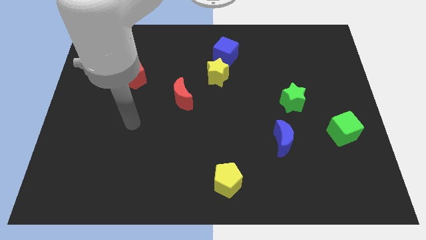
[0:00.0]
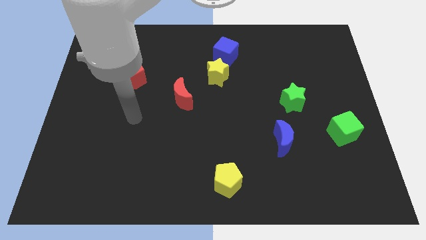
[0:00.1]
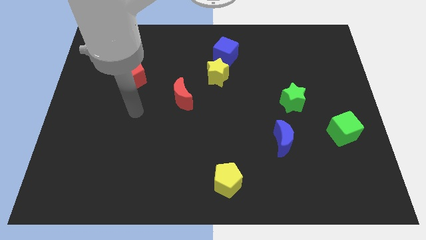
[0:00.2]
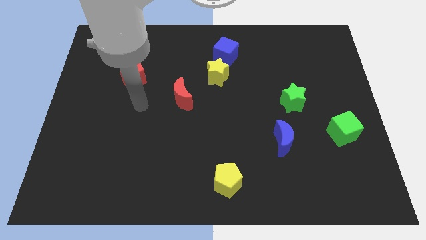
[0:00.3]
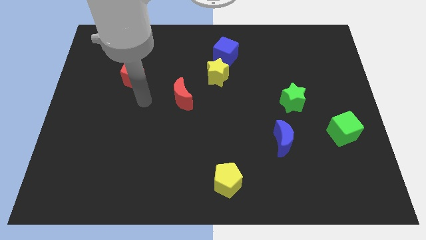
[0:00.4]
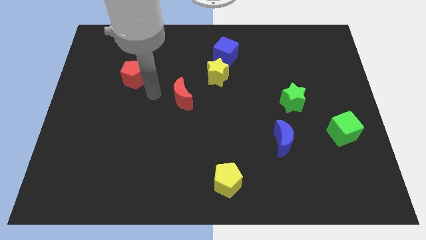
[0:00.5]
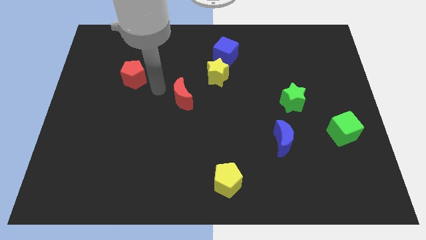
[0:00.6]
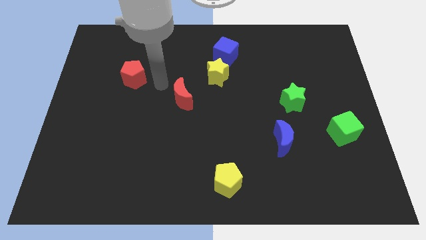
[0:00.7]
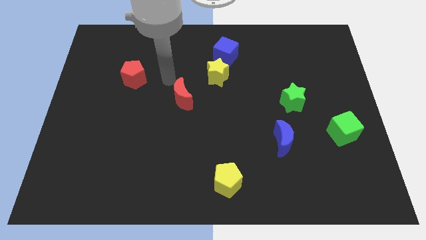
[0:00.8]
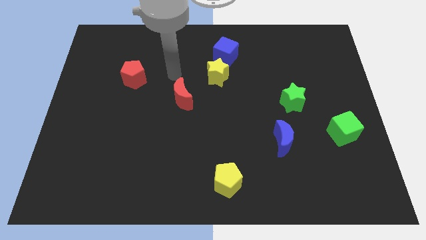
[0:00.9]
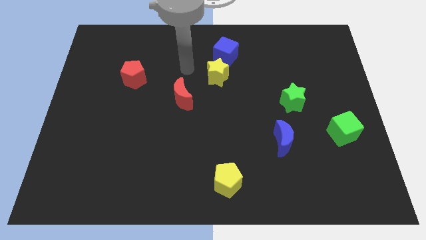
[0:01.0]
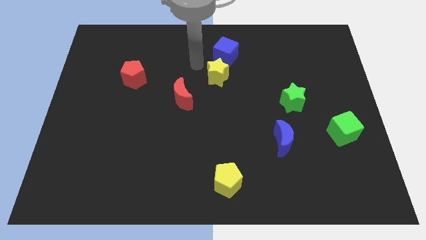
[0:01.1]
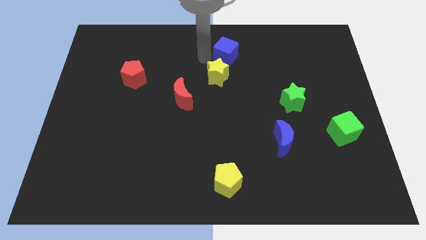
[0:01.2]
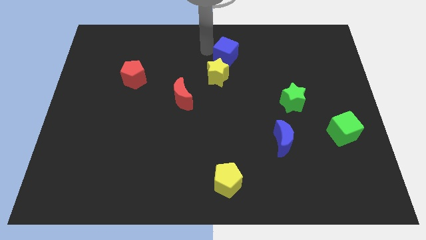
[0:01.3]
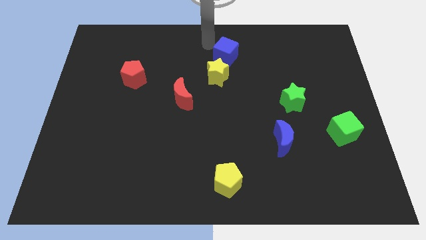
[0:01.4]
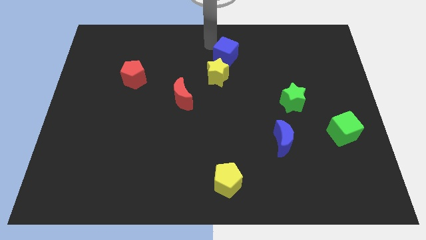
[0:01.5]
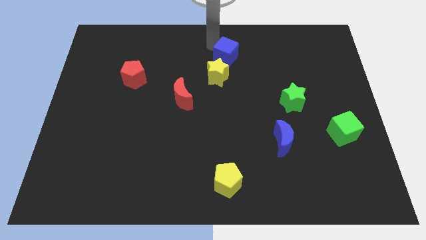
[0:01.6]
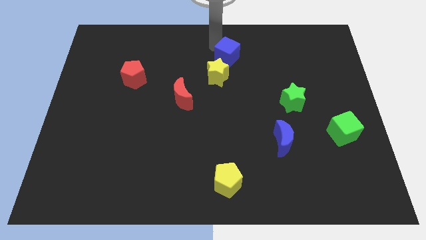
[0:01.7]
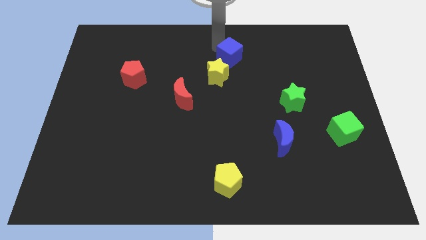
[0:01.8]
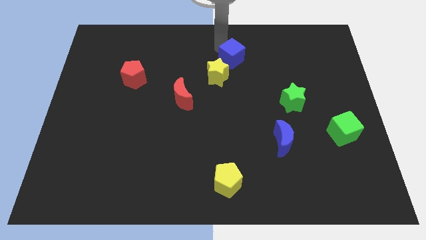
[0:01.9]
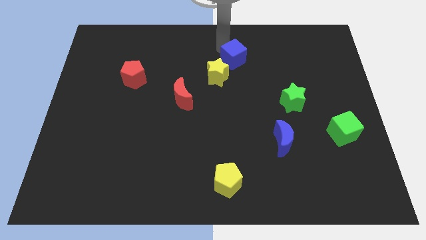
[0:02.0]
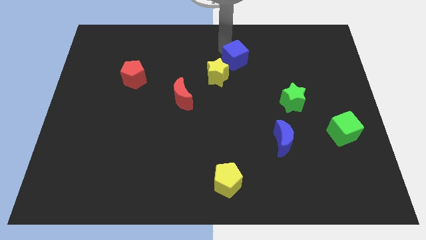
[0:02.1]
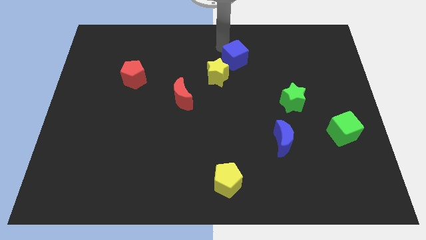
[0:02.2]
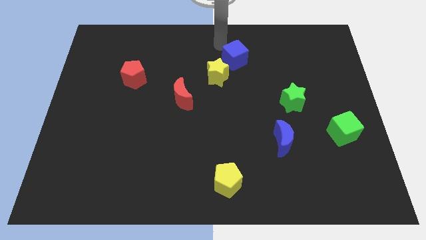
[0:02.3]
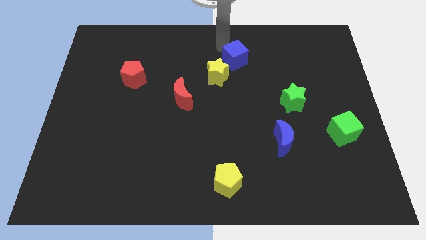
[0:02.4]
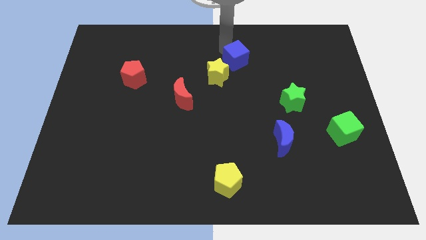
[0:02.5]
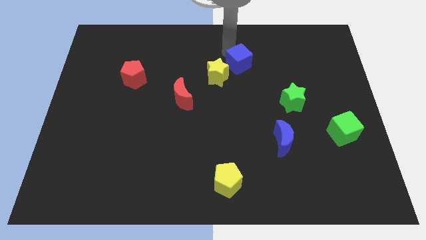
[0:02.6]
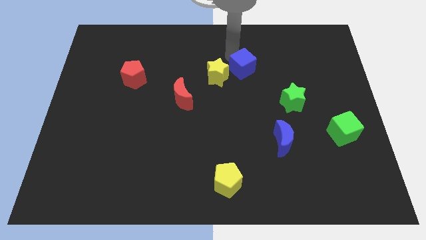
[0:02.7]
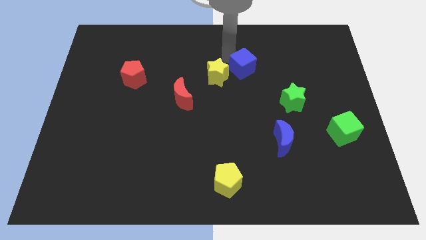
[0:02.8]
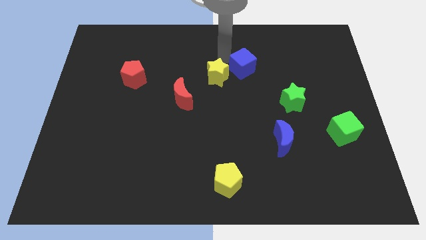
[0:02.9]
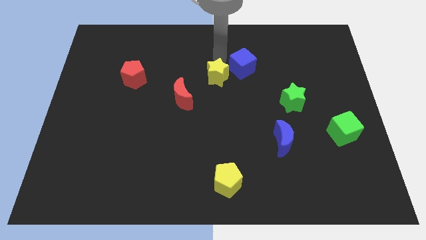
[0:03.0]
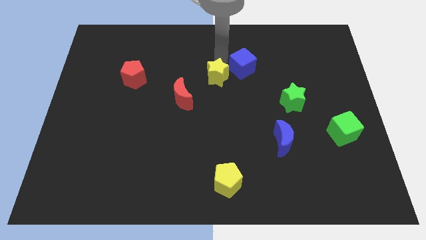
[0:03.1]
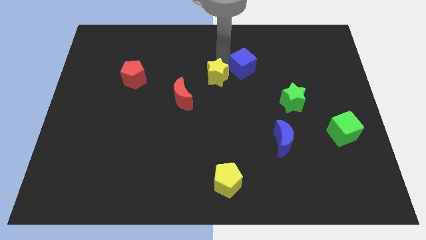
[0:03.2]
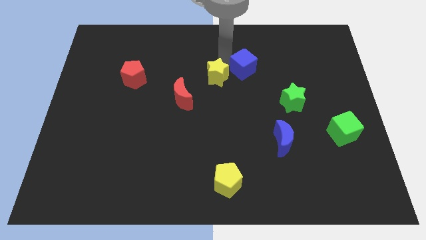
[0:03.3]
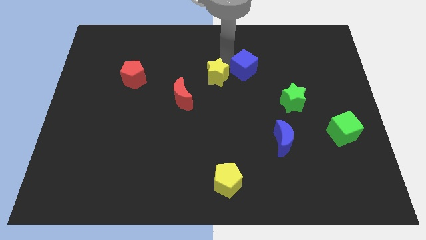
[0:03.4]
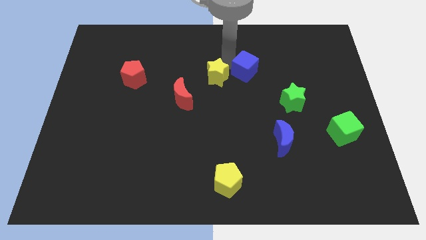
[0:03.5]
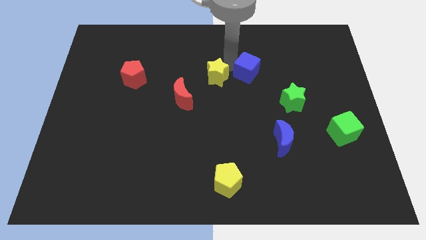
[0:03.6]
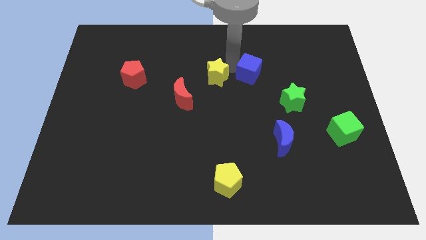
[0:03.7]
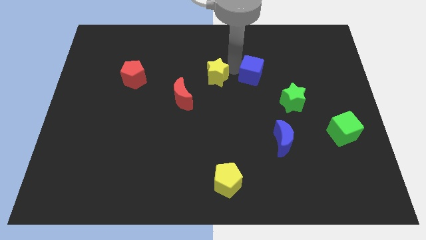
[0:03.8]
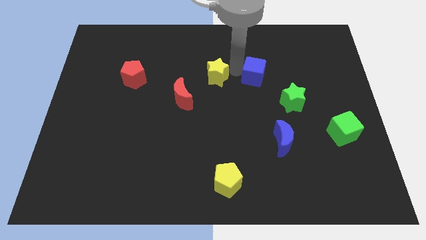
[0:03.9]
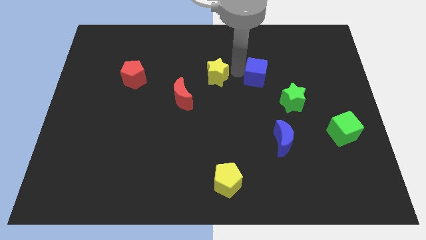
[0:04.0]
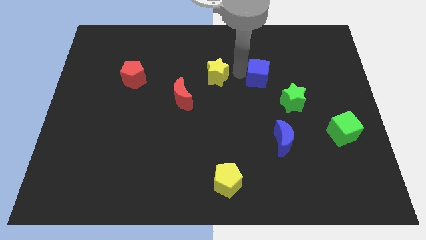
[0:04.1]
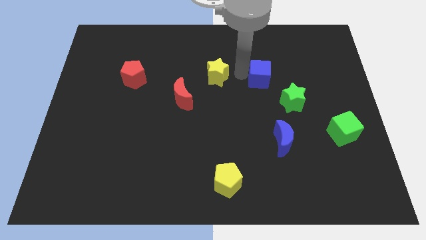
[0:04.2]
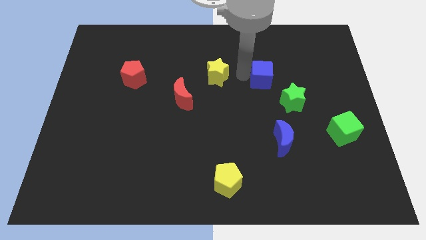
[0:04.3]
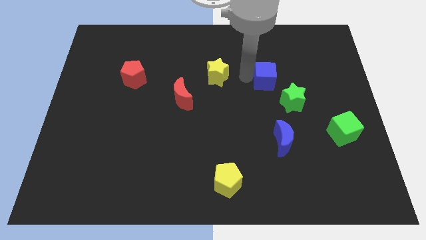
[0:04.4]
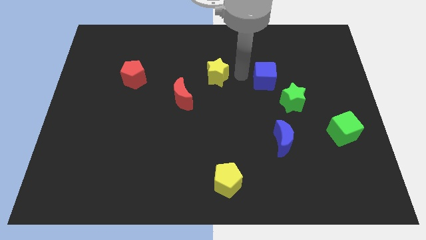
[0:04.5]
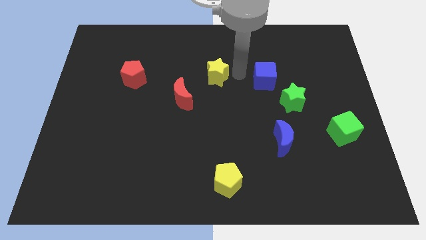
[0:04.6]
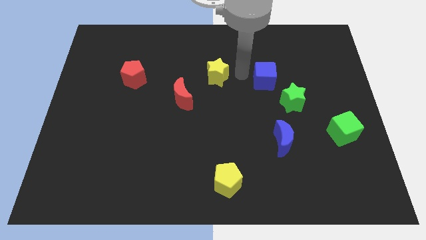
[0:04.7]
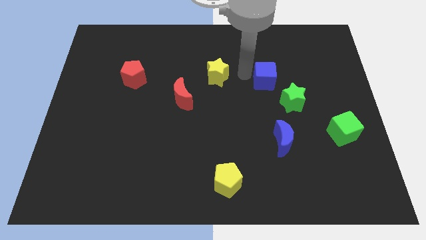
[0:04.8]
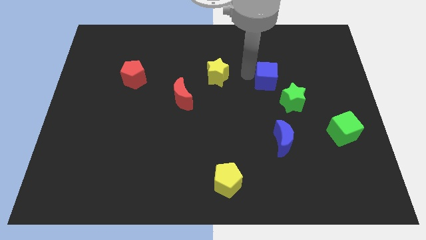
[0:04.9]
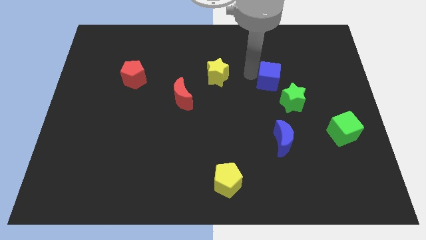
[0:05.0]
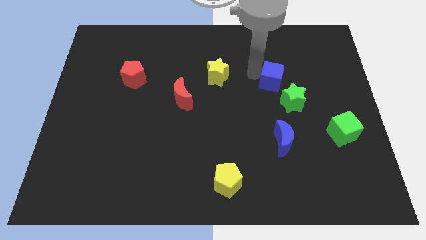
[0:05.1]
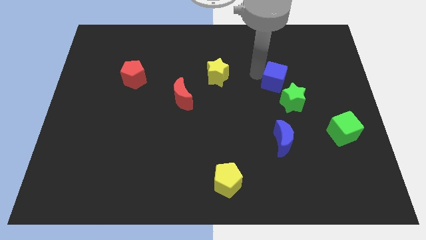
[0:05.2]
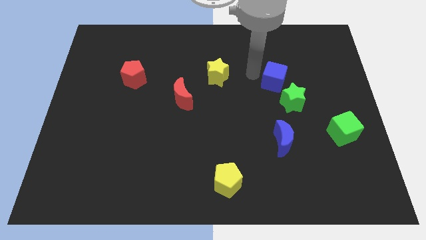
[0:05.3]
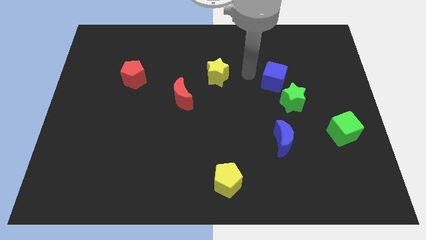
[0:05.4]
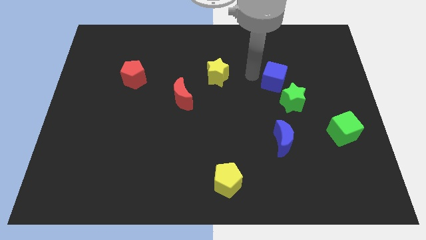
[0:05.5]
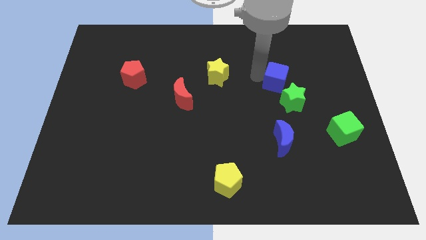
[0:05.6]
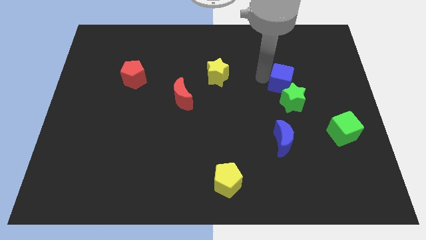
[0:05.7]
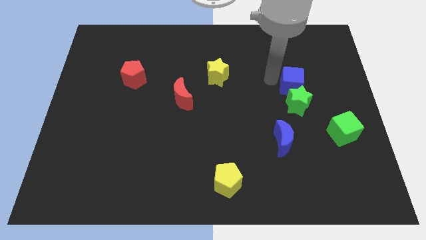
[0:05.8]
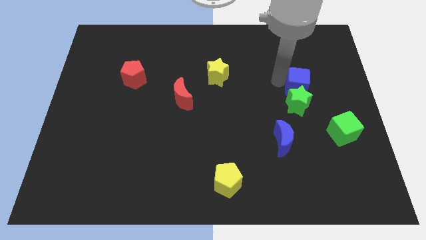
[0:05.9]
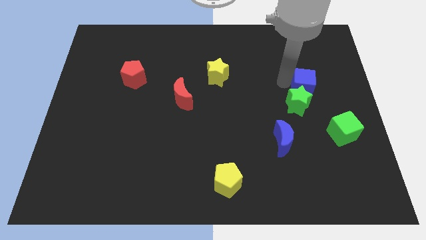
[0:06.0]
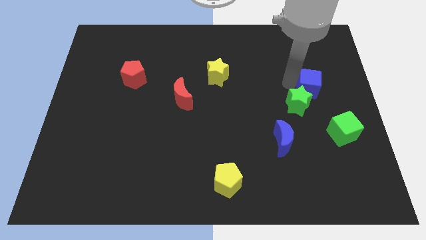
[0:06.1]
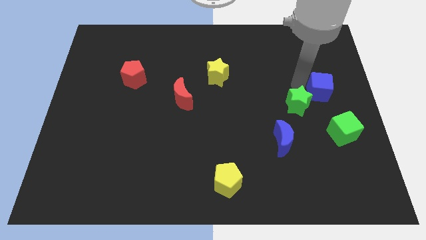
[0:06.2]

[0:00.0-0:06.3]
move the blue cube to the center right
